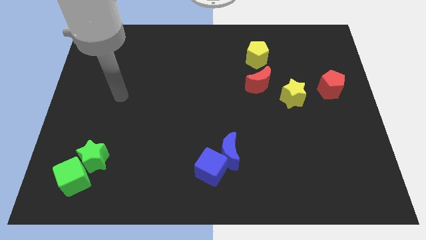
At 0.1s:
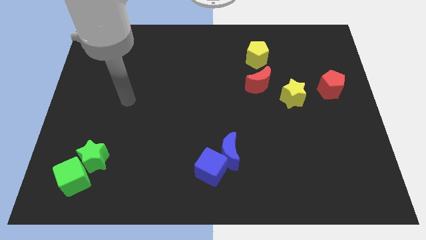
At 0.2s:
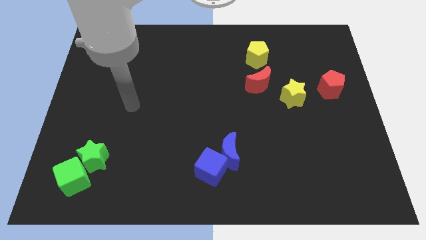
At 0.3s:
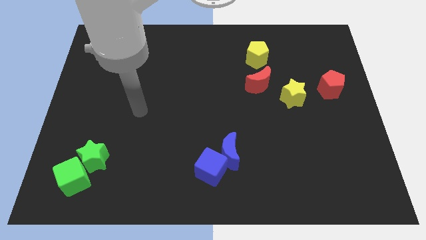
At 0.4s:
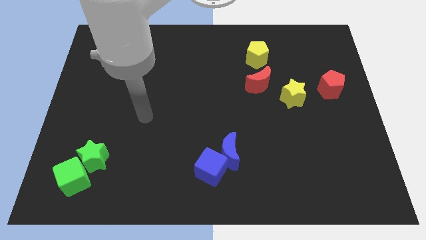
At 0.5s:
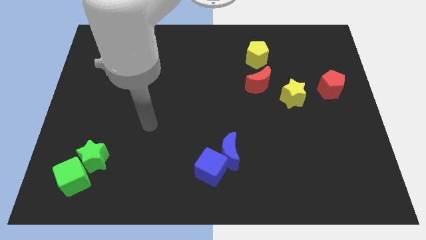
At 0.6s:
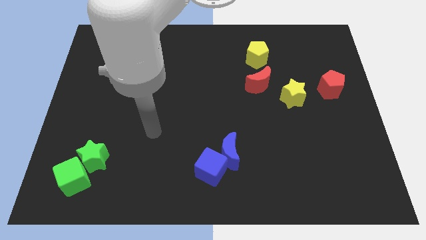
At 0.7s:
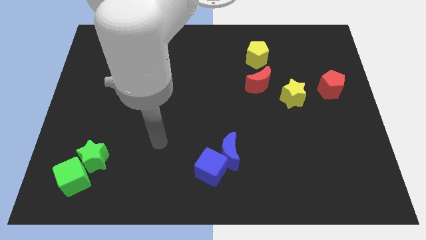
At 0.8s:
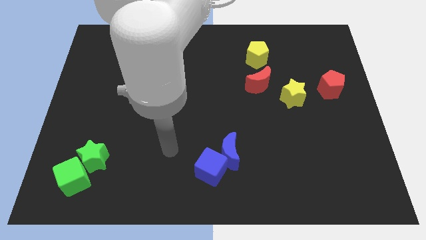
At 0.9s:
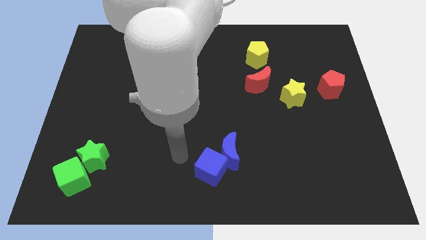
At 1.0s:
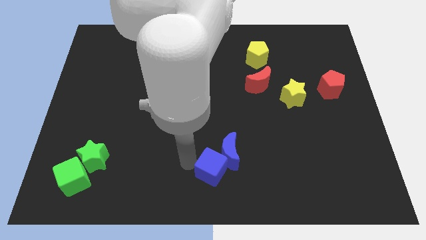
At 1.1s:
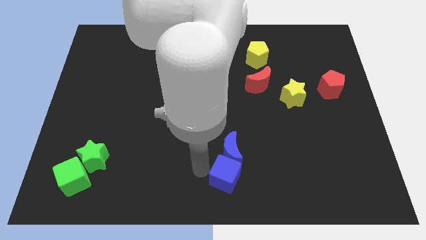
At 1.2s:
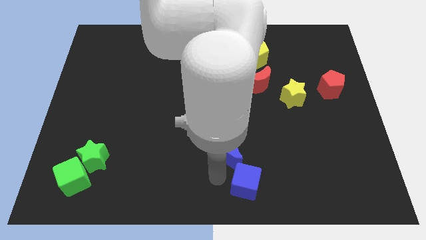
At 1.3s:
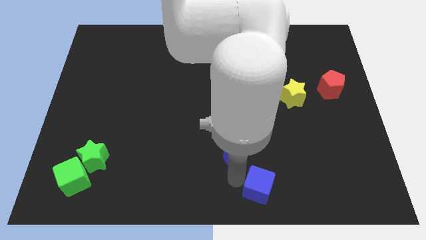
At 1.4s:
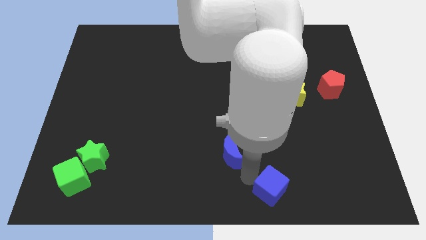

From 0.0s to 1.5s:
move the blue moon away from the blue cube

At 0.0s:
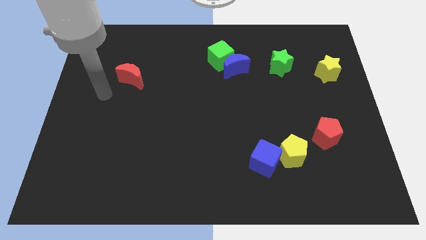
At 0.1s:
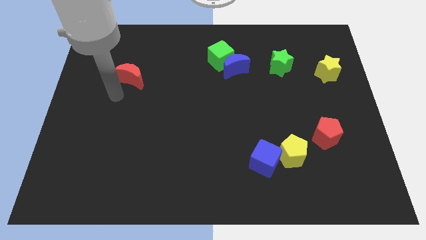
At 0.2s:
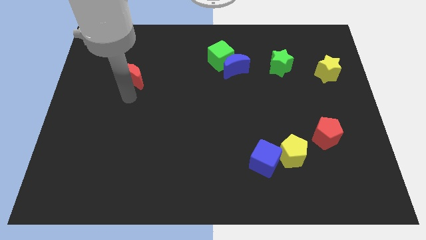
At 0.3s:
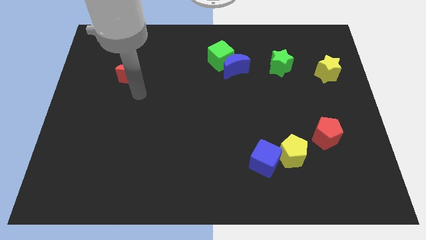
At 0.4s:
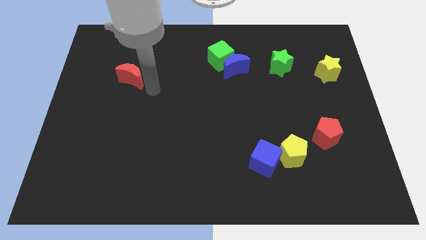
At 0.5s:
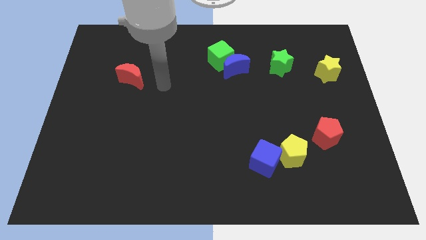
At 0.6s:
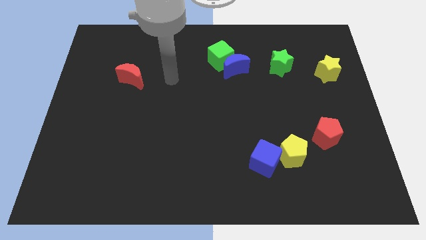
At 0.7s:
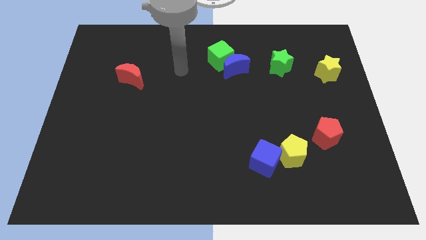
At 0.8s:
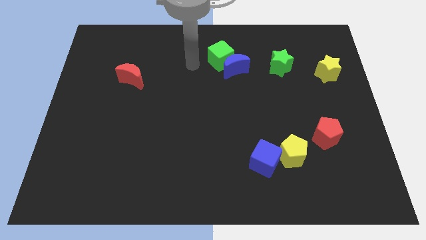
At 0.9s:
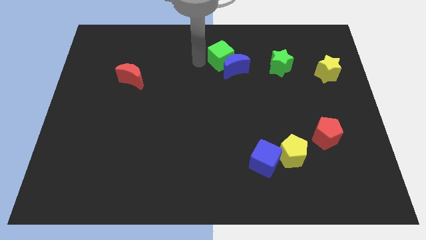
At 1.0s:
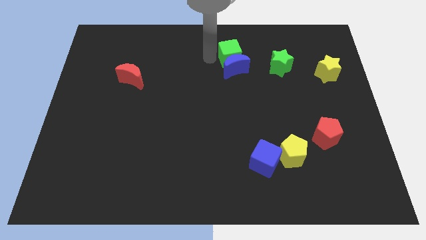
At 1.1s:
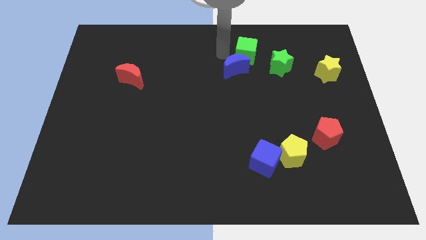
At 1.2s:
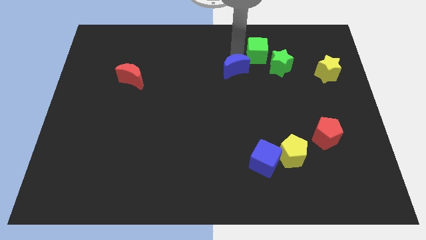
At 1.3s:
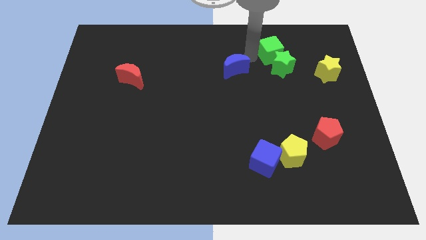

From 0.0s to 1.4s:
pull the blue moon apart from the green cube

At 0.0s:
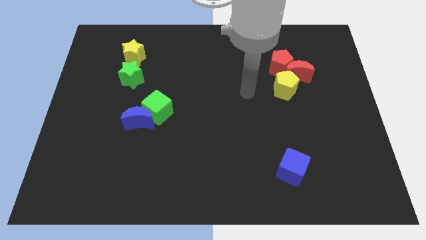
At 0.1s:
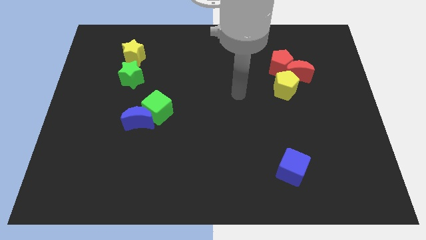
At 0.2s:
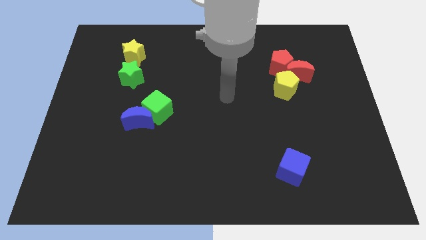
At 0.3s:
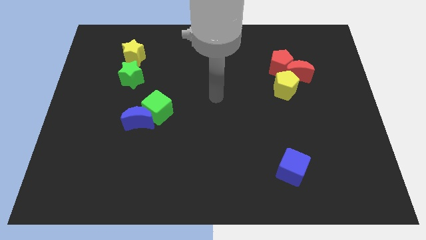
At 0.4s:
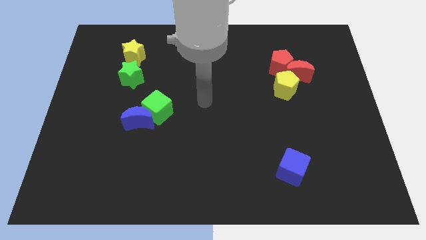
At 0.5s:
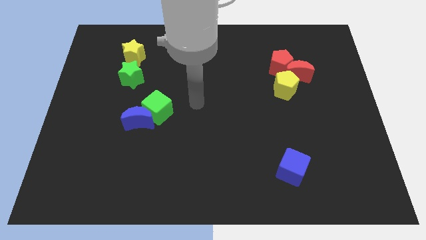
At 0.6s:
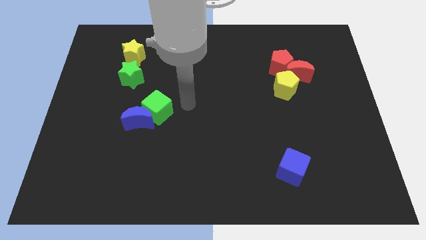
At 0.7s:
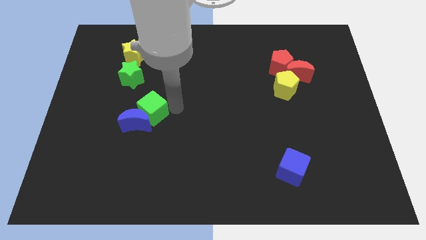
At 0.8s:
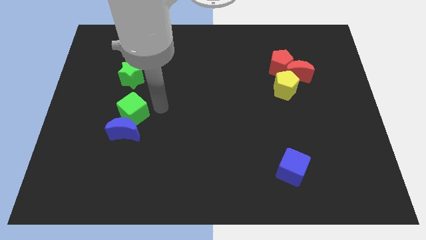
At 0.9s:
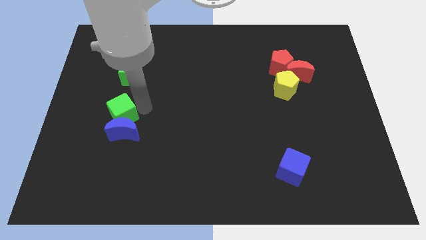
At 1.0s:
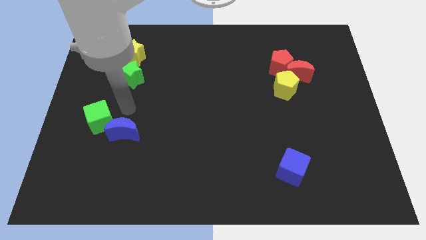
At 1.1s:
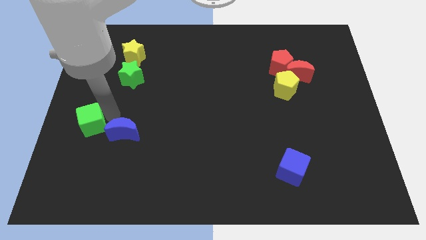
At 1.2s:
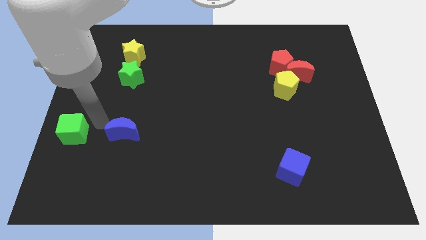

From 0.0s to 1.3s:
separate the blue moon from the green cube

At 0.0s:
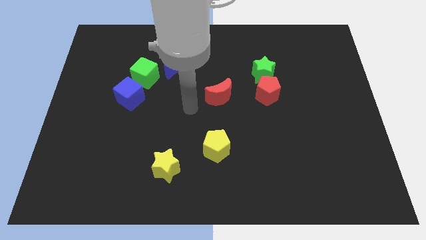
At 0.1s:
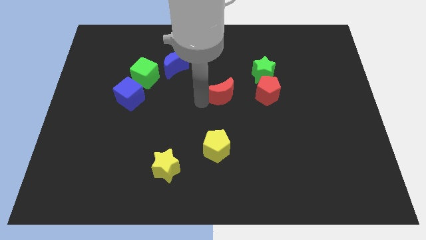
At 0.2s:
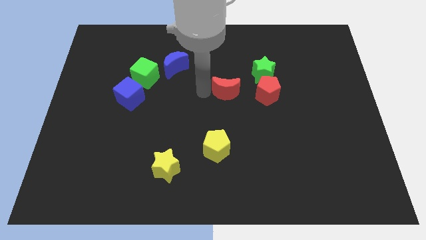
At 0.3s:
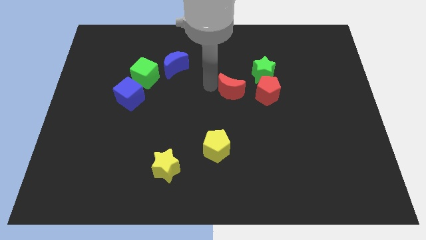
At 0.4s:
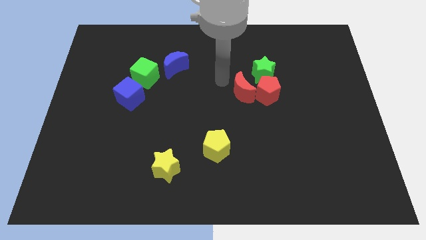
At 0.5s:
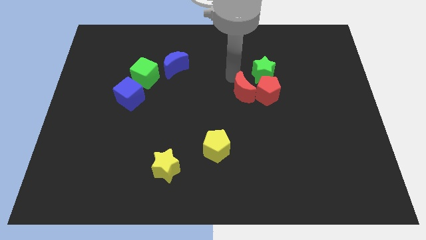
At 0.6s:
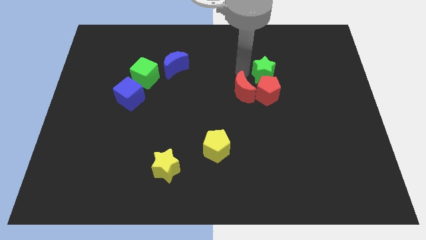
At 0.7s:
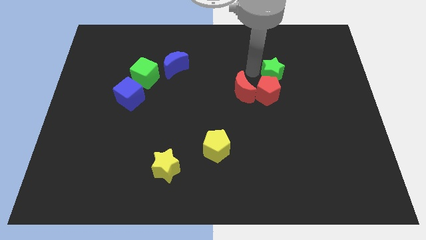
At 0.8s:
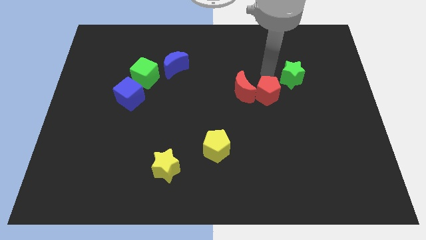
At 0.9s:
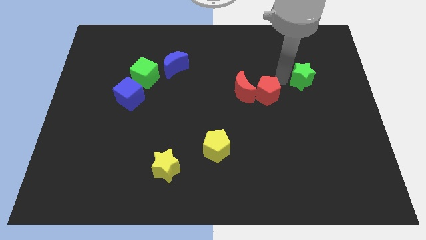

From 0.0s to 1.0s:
move the red pentagon away from the green star

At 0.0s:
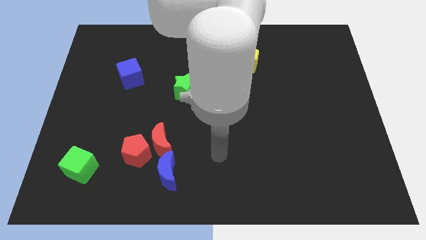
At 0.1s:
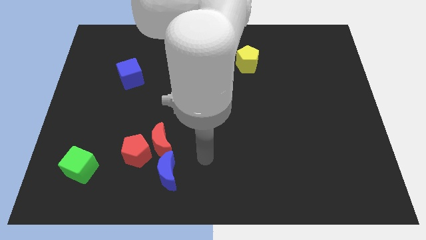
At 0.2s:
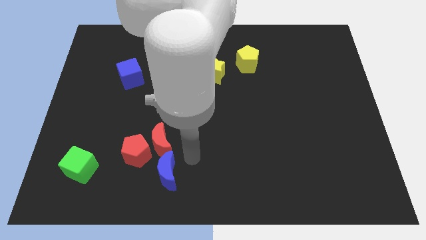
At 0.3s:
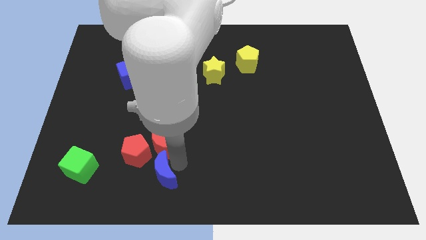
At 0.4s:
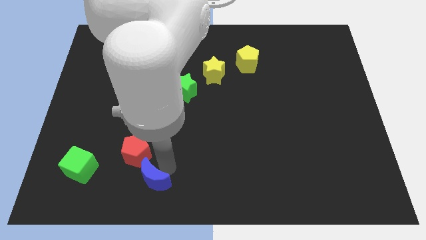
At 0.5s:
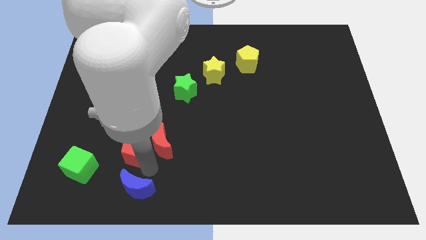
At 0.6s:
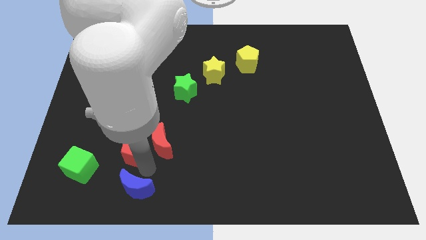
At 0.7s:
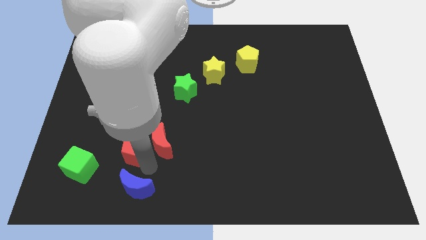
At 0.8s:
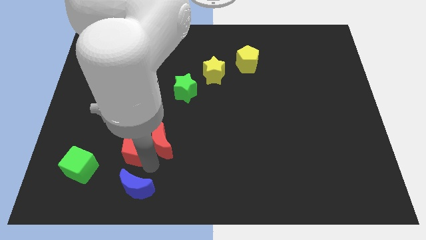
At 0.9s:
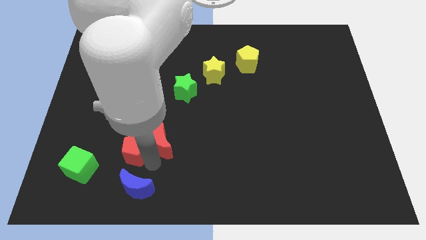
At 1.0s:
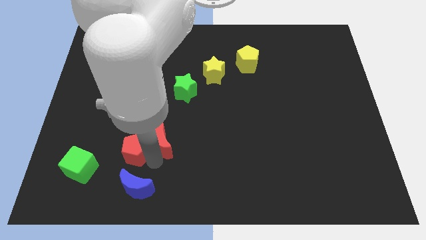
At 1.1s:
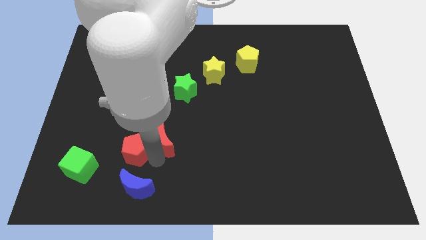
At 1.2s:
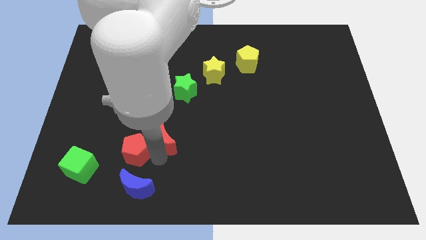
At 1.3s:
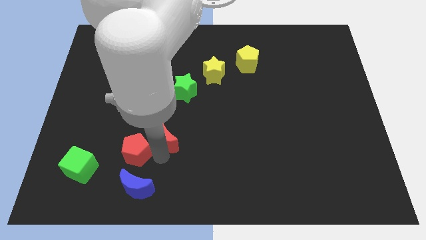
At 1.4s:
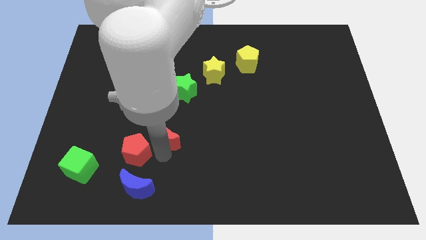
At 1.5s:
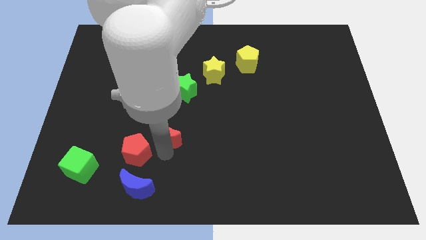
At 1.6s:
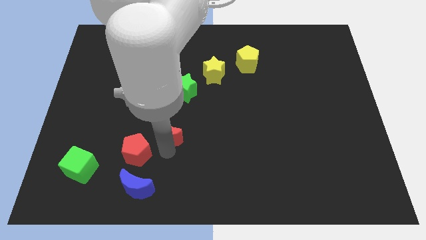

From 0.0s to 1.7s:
separate the red moon from the red pentagon and blue moon

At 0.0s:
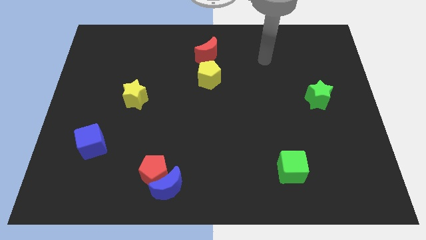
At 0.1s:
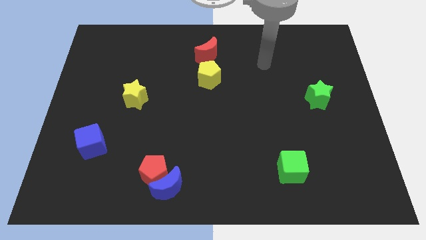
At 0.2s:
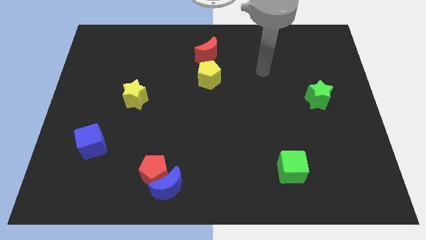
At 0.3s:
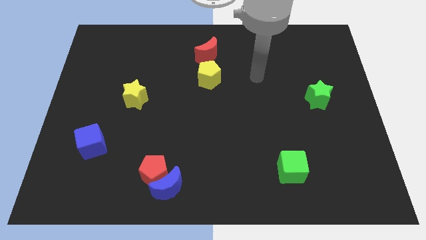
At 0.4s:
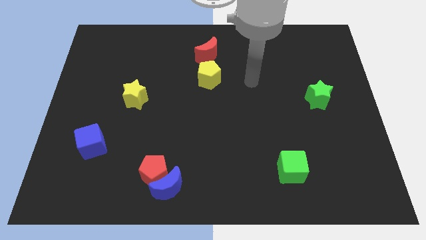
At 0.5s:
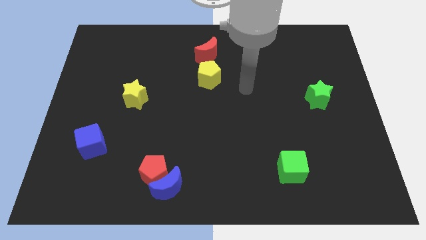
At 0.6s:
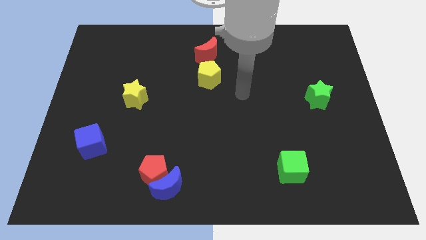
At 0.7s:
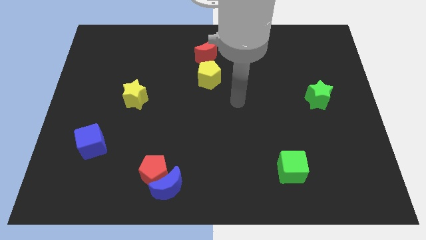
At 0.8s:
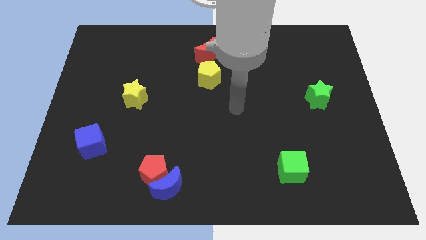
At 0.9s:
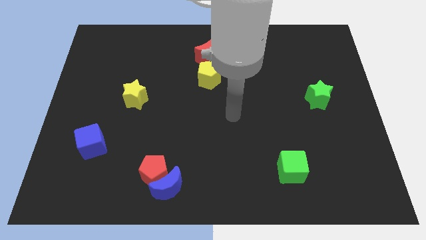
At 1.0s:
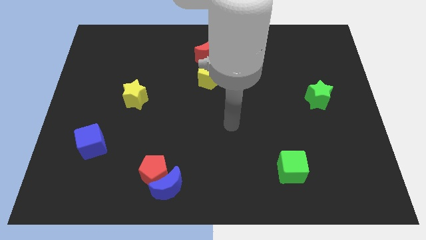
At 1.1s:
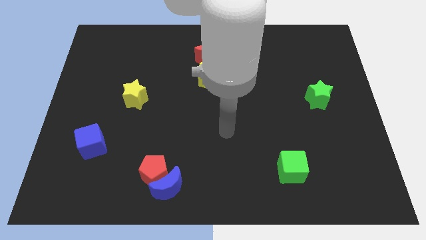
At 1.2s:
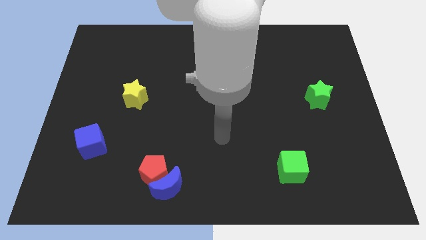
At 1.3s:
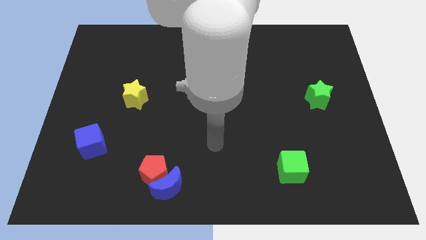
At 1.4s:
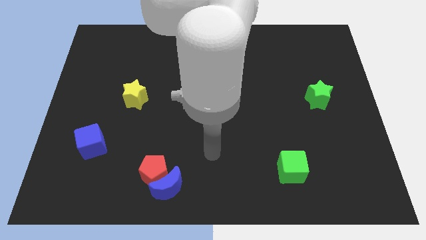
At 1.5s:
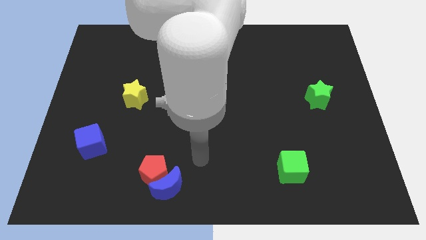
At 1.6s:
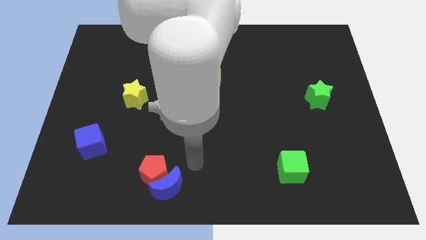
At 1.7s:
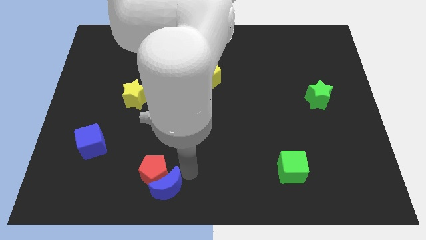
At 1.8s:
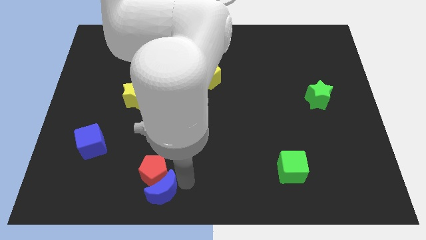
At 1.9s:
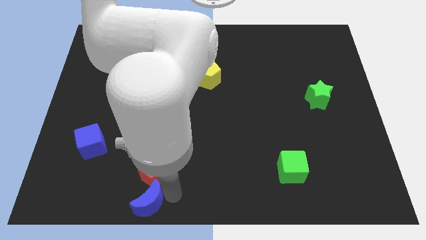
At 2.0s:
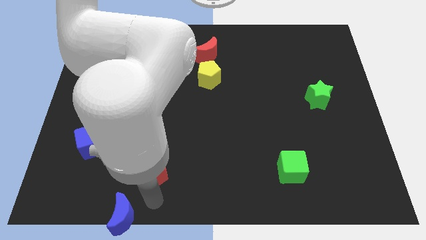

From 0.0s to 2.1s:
separate the red pentagon from the blue moon

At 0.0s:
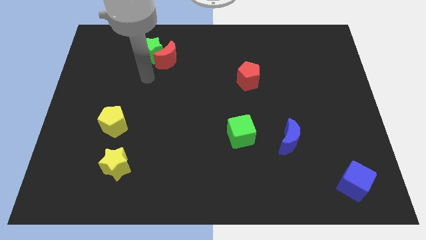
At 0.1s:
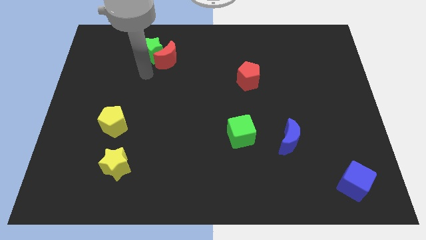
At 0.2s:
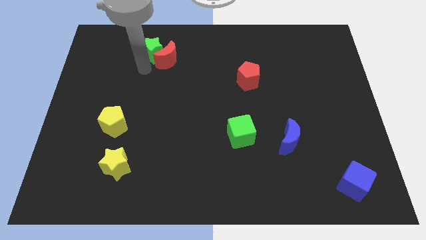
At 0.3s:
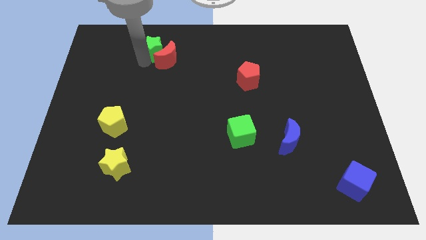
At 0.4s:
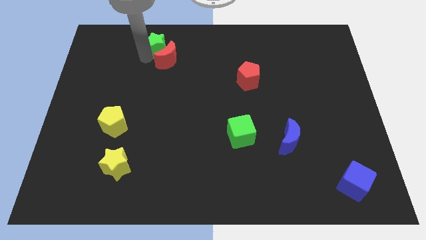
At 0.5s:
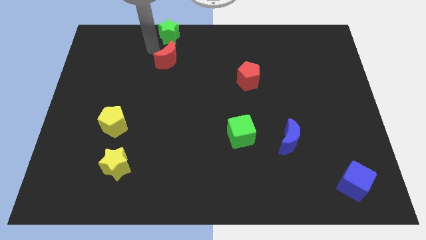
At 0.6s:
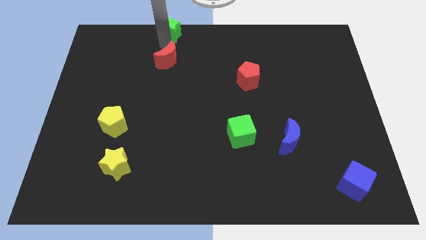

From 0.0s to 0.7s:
pull the red moon apart from the green star
